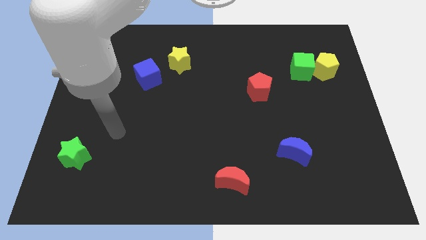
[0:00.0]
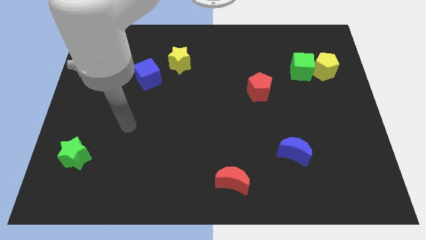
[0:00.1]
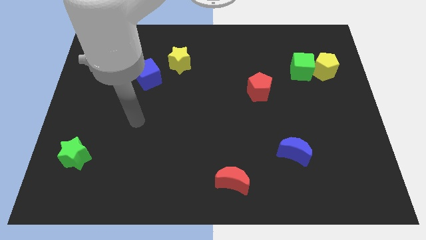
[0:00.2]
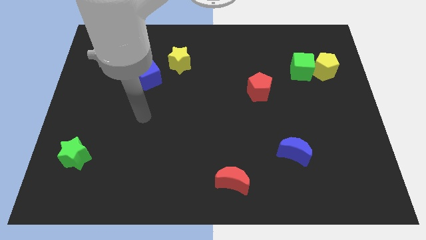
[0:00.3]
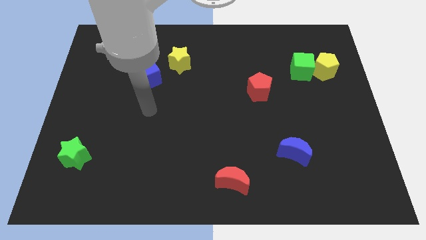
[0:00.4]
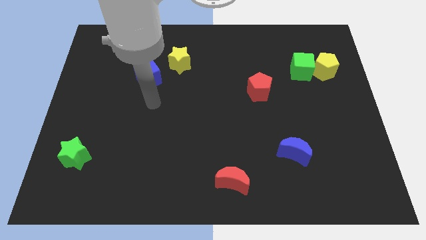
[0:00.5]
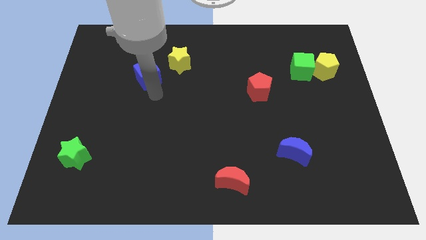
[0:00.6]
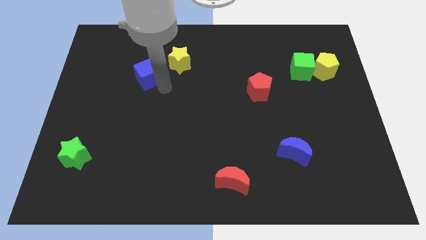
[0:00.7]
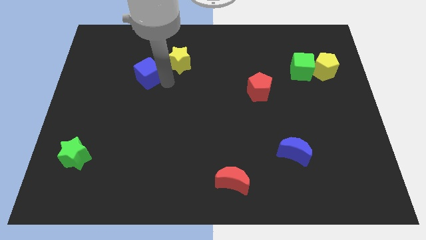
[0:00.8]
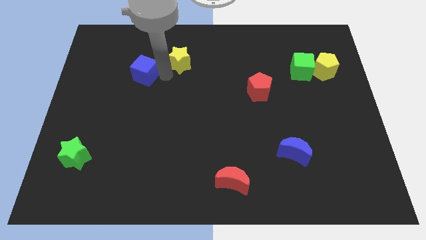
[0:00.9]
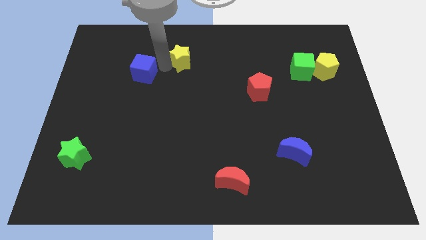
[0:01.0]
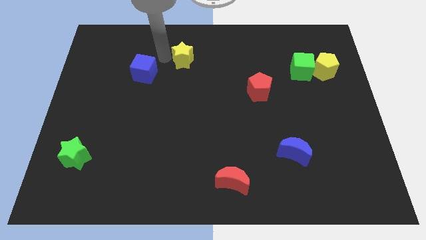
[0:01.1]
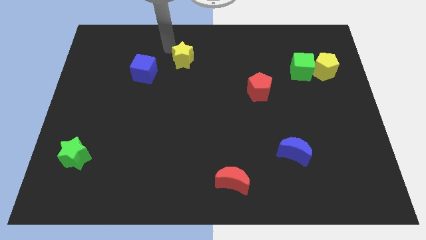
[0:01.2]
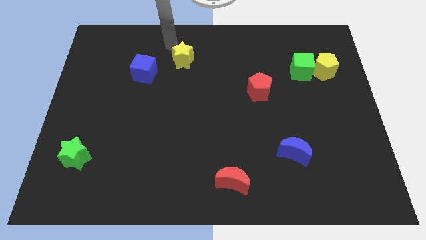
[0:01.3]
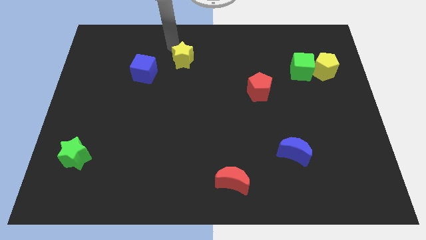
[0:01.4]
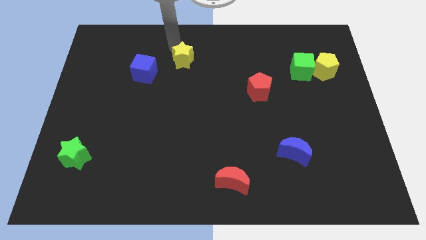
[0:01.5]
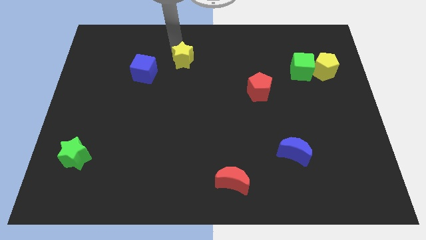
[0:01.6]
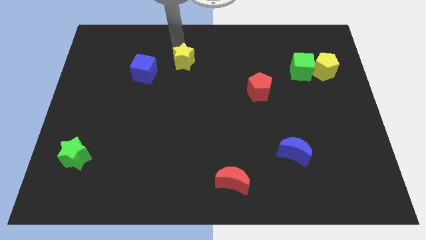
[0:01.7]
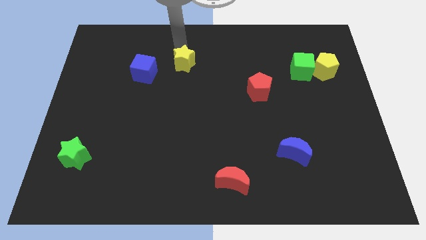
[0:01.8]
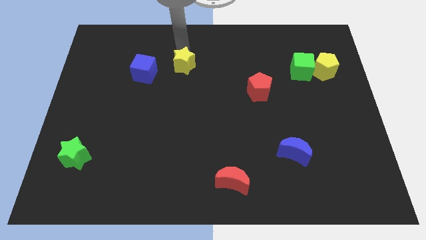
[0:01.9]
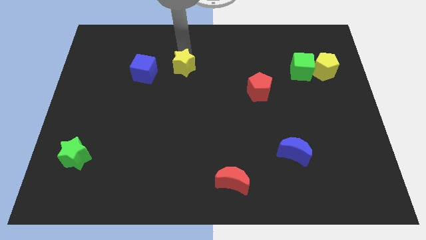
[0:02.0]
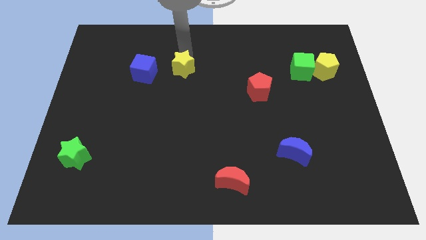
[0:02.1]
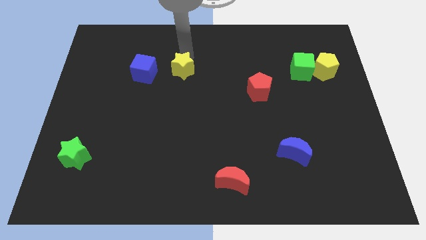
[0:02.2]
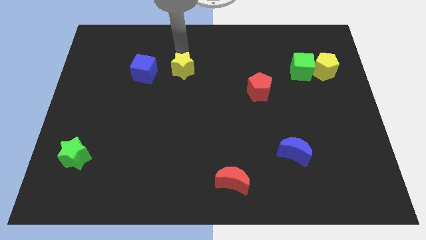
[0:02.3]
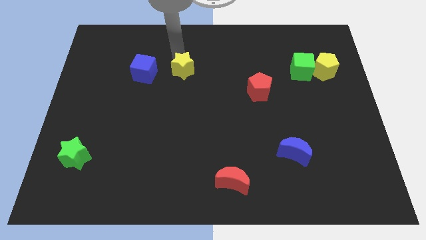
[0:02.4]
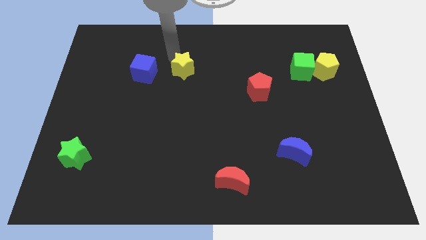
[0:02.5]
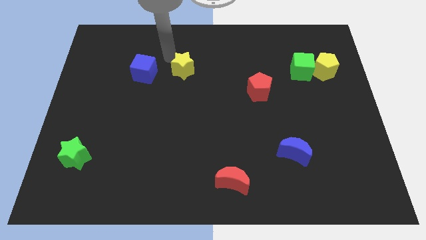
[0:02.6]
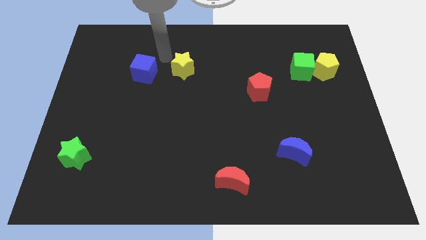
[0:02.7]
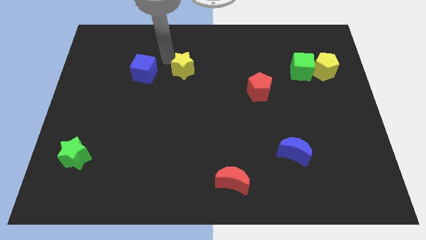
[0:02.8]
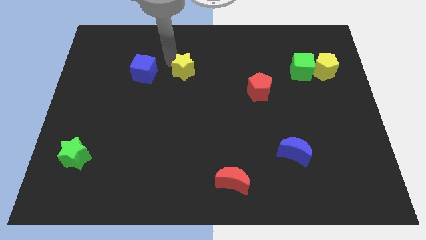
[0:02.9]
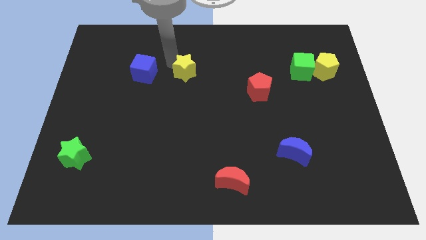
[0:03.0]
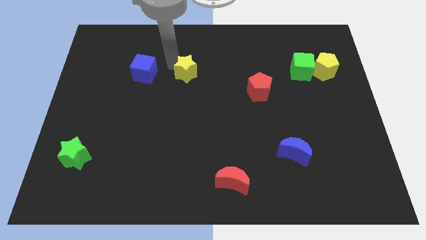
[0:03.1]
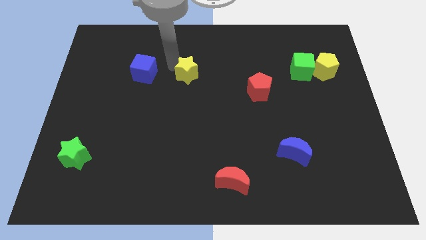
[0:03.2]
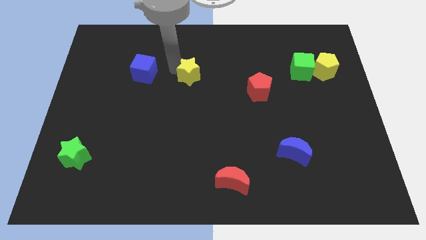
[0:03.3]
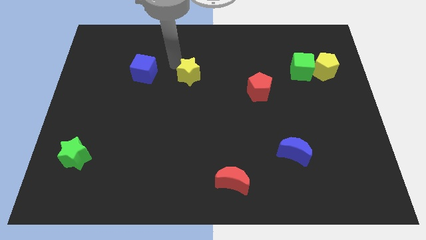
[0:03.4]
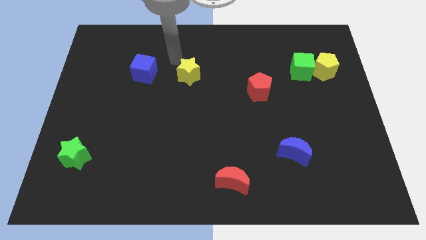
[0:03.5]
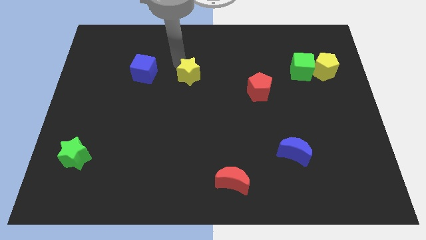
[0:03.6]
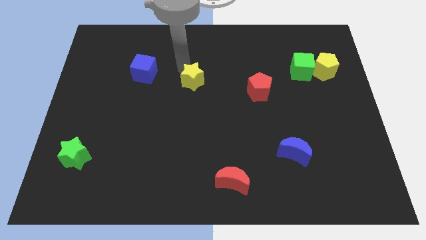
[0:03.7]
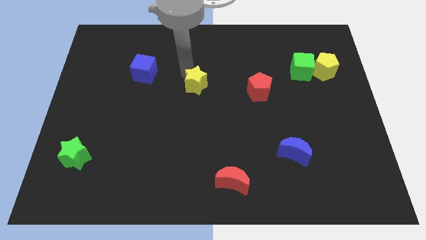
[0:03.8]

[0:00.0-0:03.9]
move the yellow star somewhat downwards and then to the right

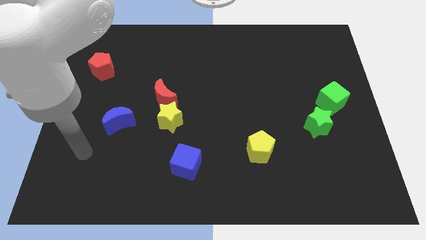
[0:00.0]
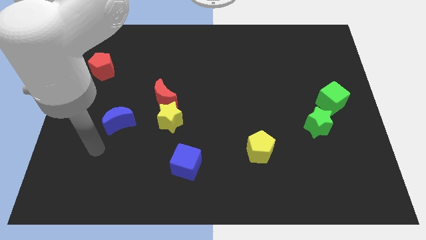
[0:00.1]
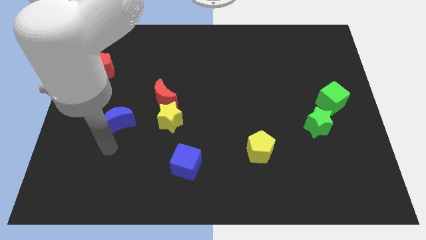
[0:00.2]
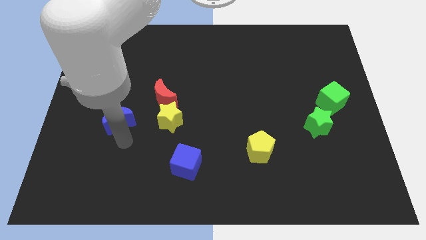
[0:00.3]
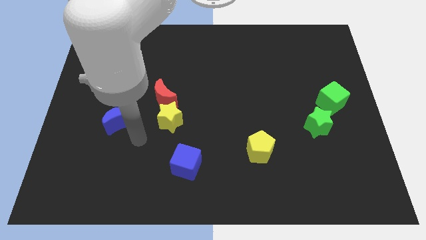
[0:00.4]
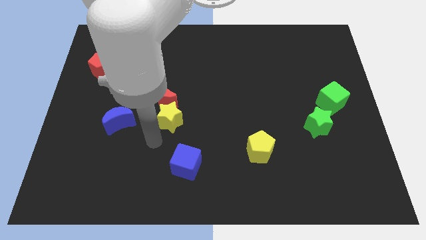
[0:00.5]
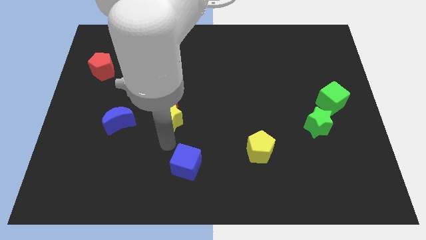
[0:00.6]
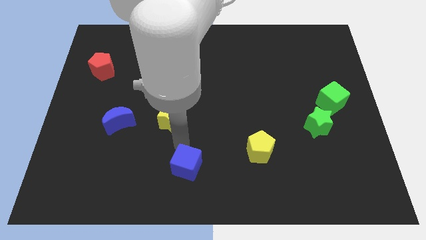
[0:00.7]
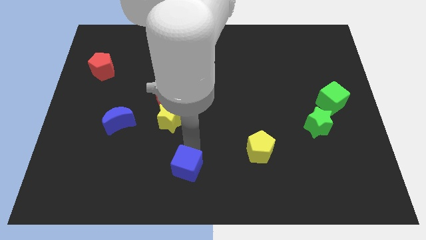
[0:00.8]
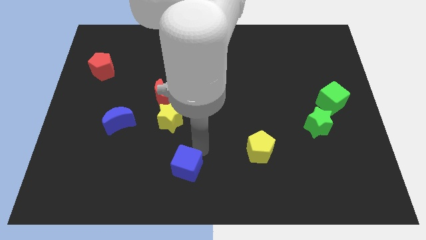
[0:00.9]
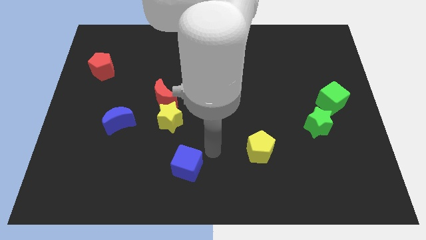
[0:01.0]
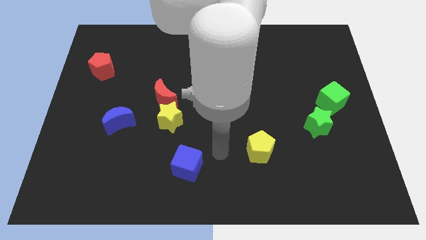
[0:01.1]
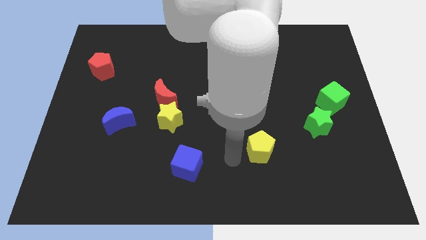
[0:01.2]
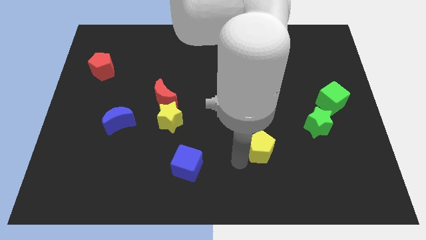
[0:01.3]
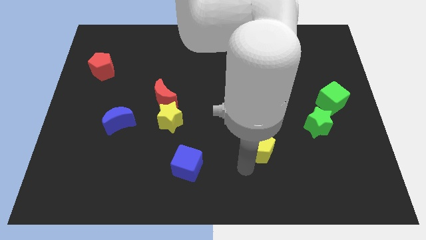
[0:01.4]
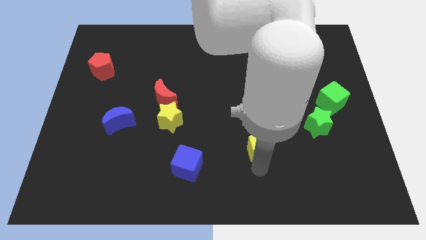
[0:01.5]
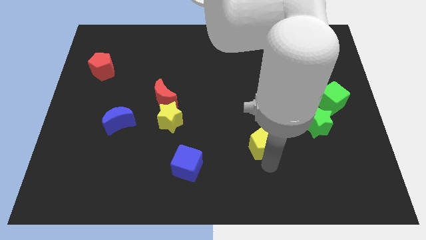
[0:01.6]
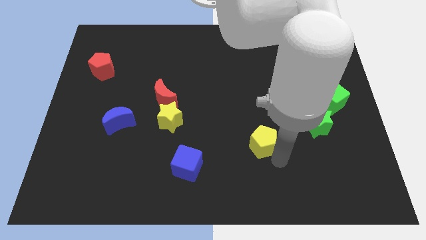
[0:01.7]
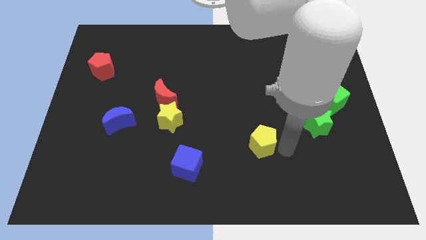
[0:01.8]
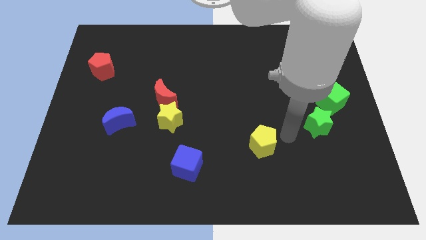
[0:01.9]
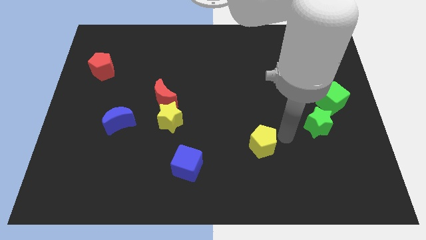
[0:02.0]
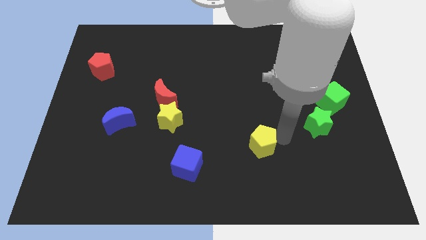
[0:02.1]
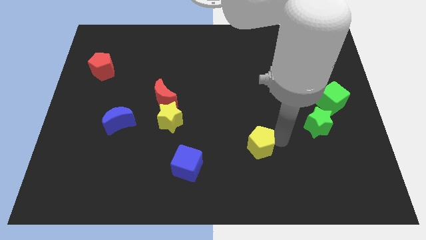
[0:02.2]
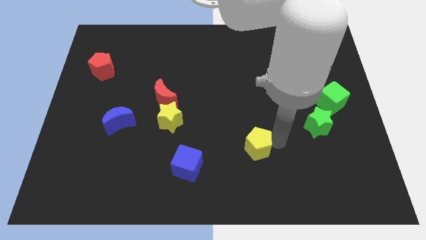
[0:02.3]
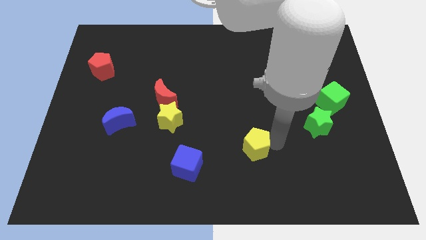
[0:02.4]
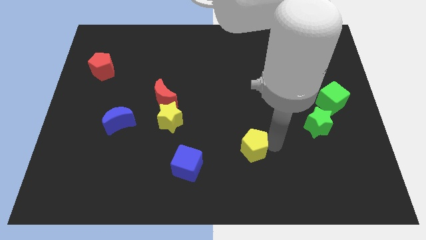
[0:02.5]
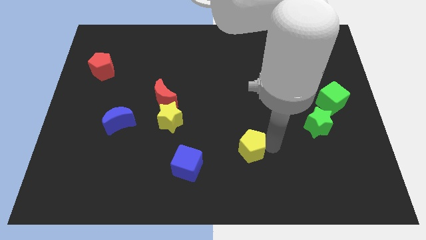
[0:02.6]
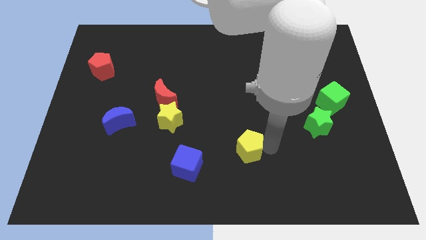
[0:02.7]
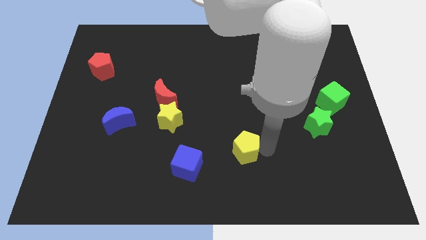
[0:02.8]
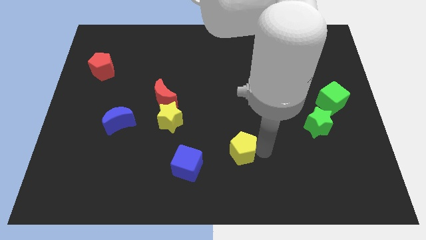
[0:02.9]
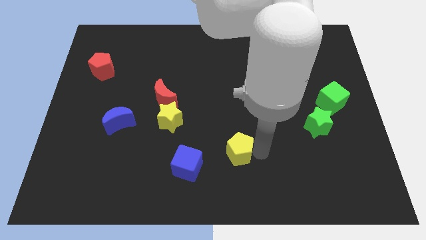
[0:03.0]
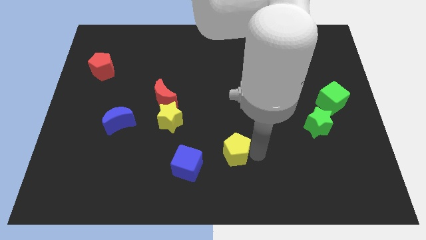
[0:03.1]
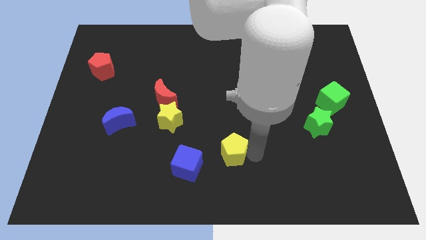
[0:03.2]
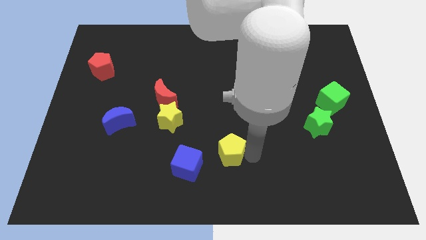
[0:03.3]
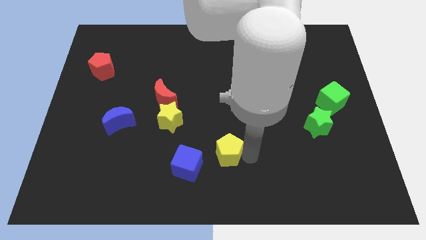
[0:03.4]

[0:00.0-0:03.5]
slightly move the yellow pentagon left

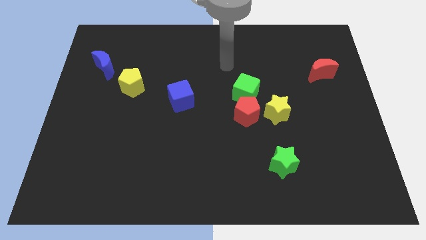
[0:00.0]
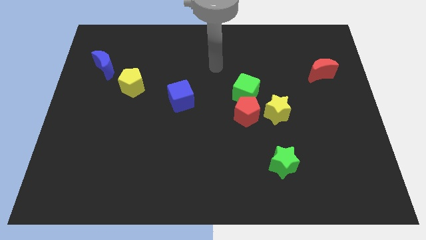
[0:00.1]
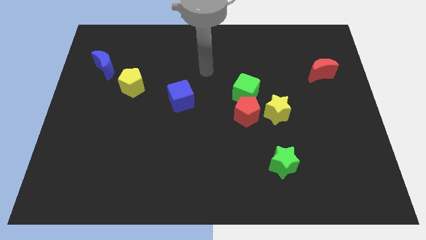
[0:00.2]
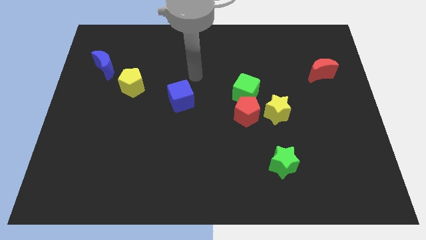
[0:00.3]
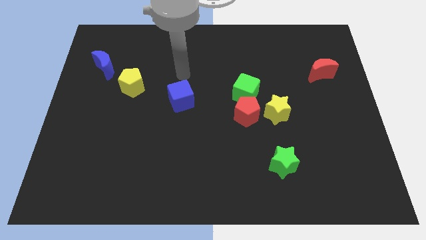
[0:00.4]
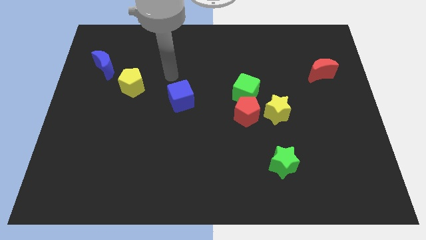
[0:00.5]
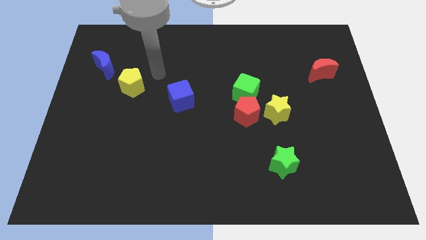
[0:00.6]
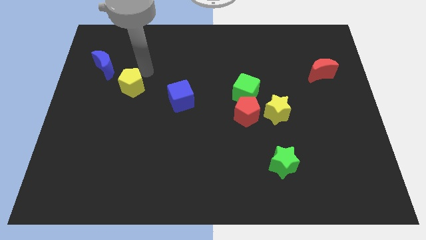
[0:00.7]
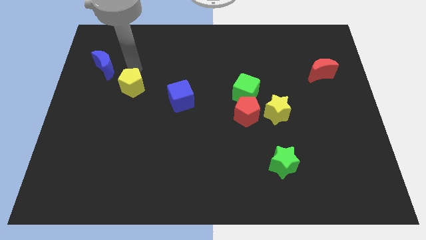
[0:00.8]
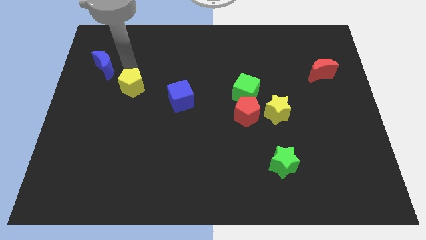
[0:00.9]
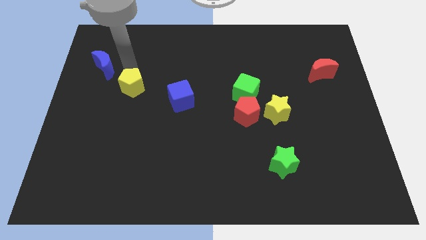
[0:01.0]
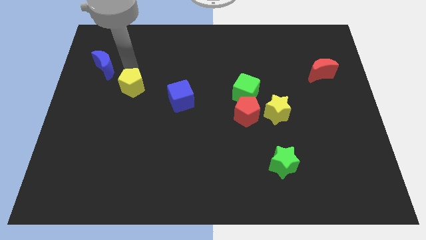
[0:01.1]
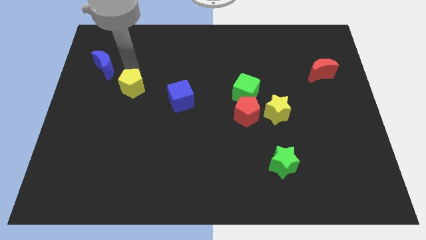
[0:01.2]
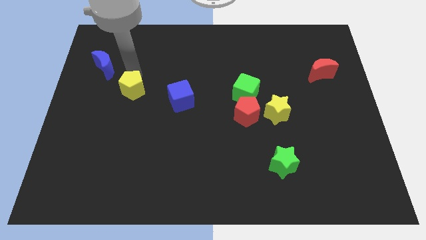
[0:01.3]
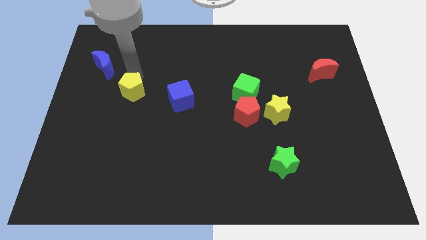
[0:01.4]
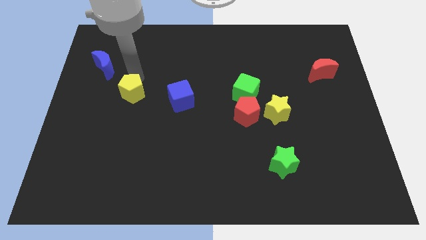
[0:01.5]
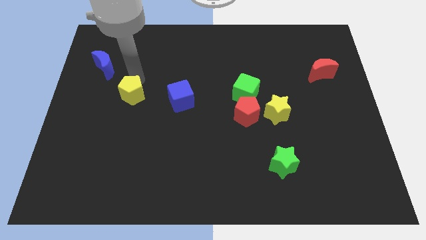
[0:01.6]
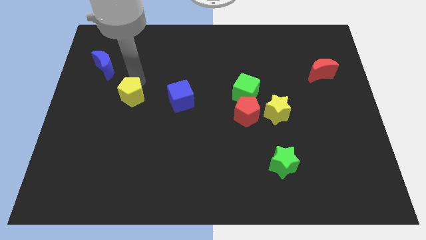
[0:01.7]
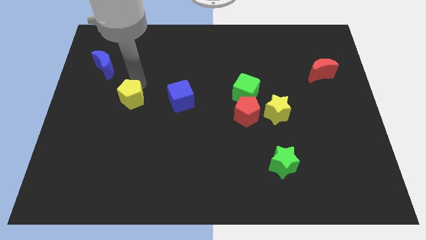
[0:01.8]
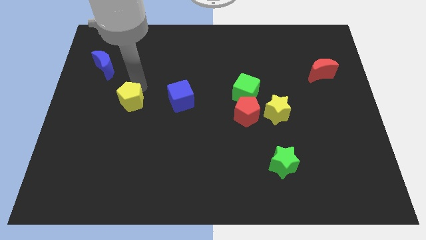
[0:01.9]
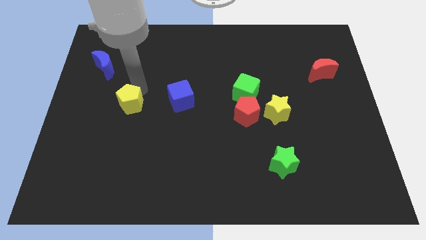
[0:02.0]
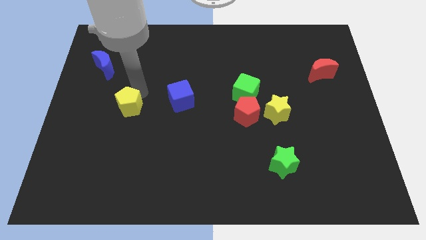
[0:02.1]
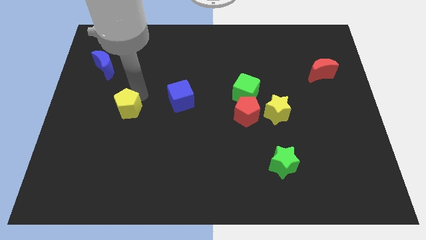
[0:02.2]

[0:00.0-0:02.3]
slightly slide the yellow pentagon down
